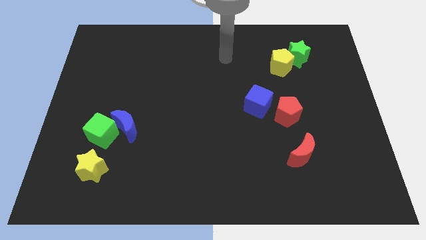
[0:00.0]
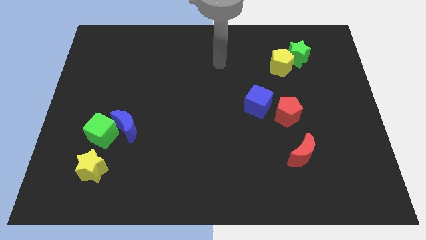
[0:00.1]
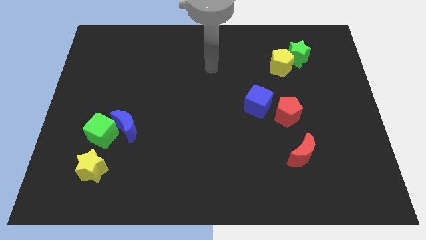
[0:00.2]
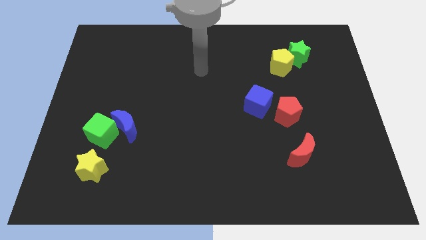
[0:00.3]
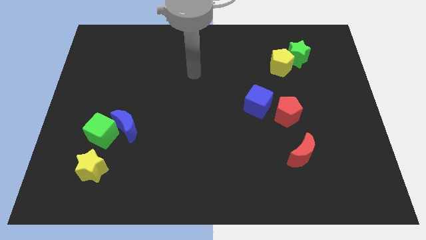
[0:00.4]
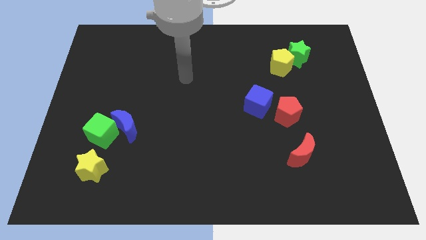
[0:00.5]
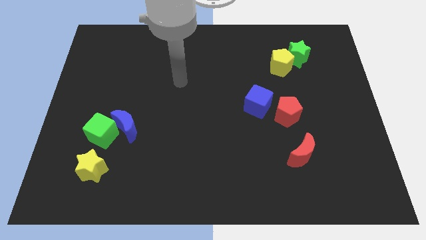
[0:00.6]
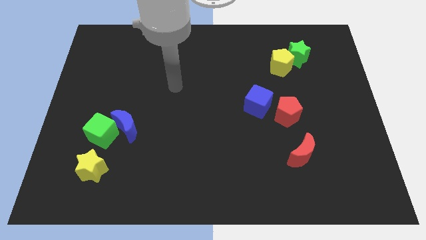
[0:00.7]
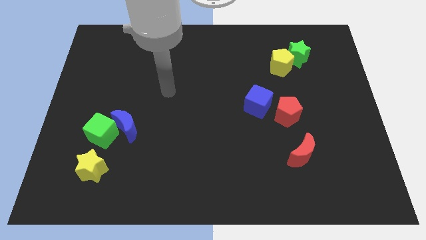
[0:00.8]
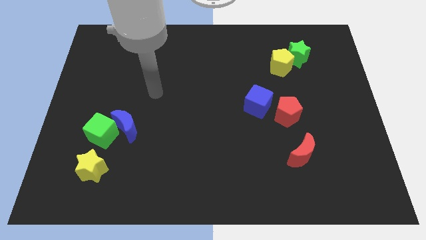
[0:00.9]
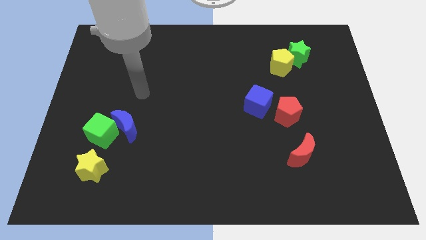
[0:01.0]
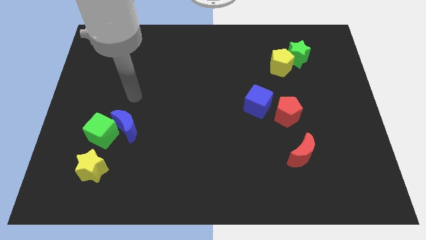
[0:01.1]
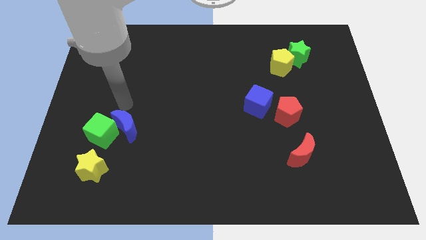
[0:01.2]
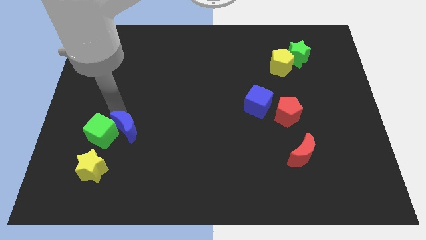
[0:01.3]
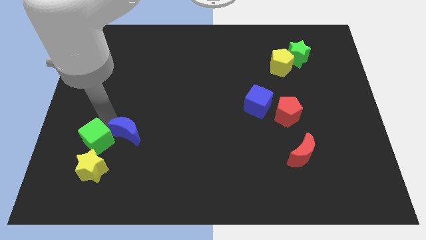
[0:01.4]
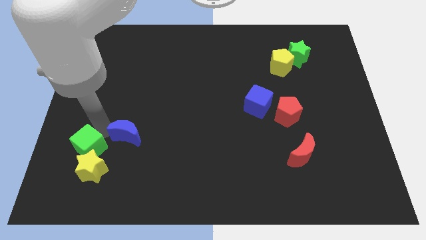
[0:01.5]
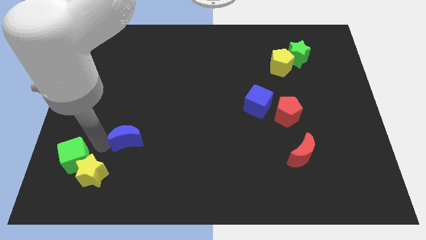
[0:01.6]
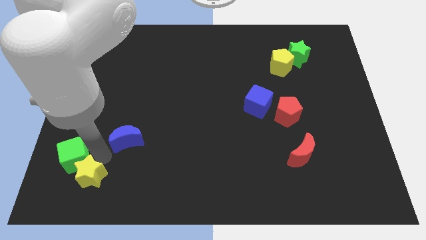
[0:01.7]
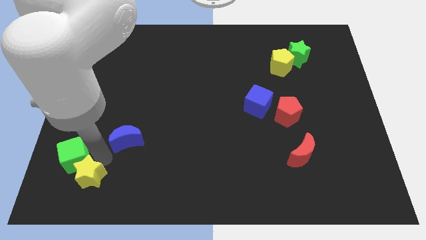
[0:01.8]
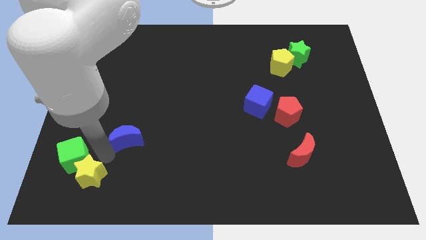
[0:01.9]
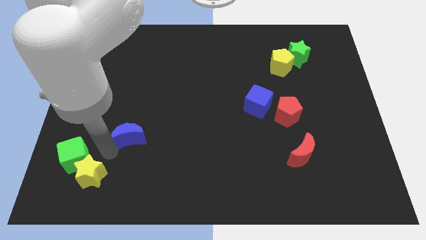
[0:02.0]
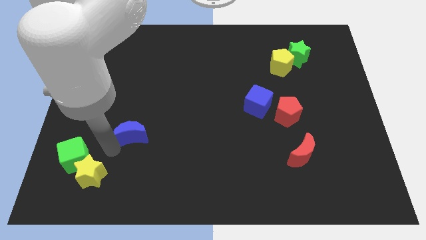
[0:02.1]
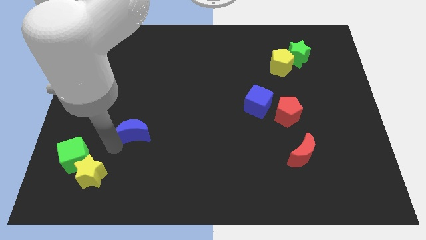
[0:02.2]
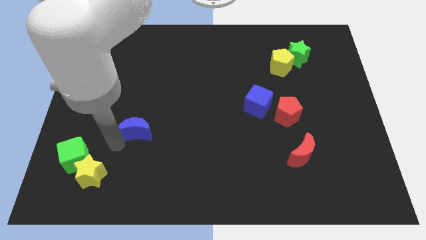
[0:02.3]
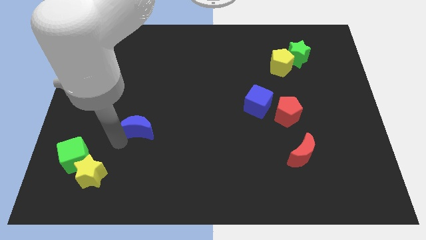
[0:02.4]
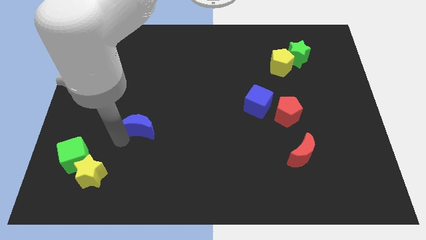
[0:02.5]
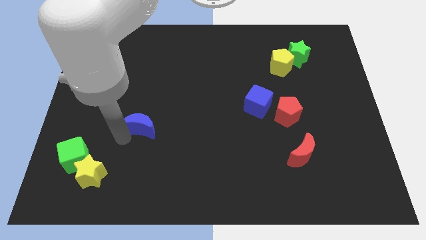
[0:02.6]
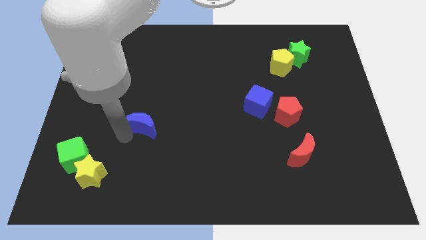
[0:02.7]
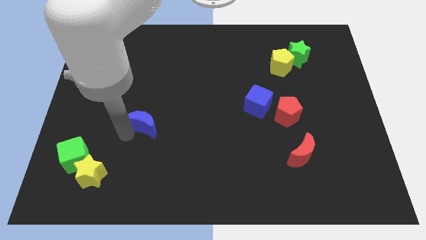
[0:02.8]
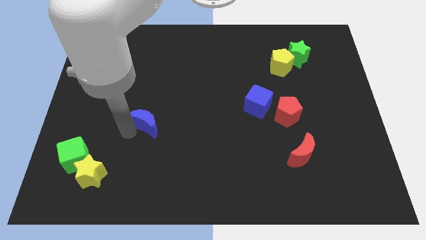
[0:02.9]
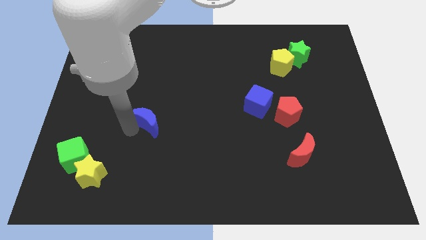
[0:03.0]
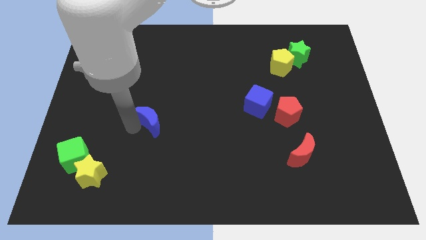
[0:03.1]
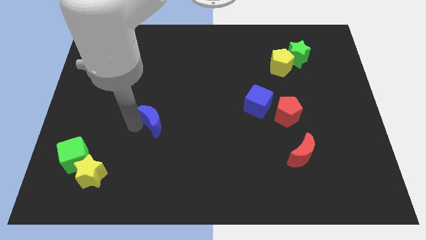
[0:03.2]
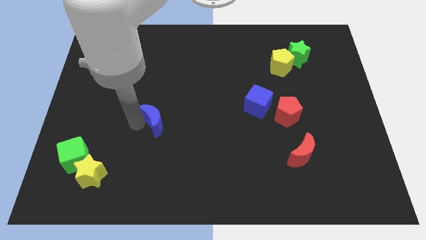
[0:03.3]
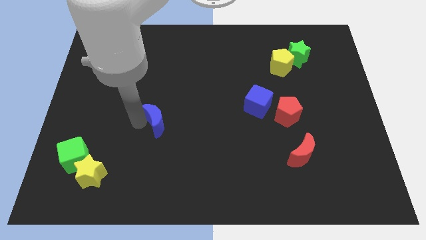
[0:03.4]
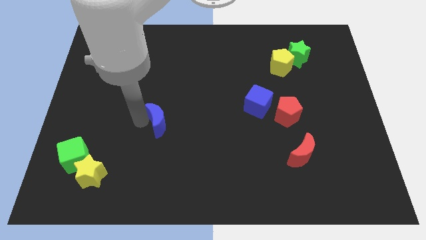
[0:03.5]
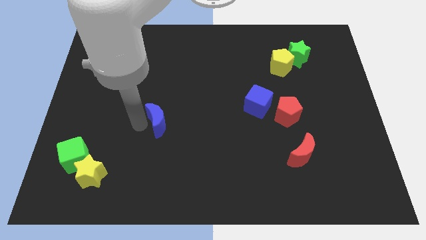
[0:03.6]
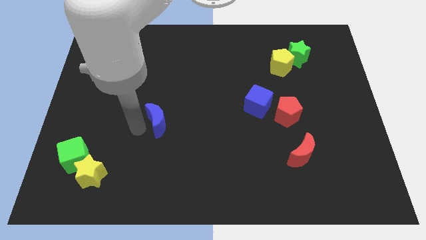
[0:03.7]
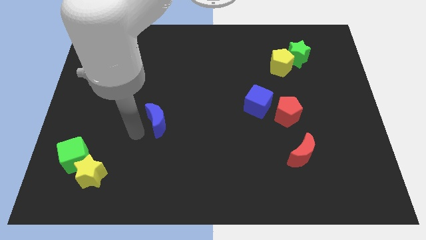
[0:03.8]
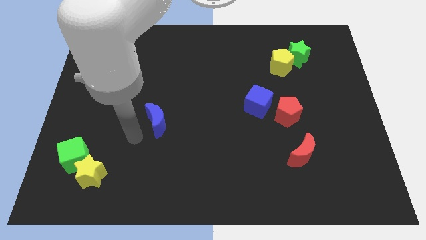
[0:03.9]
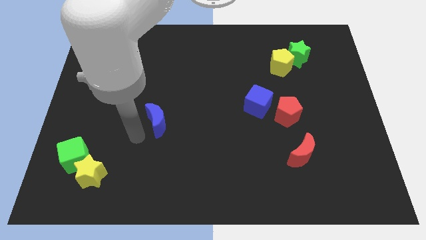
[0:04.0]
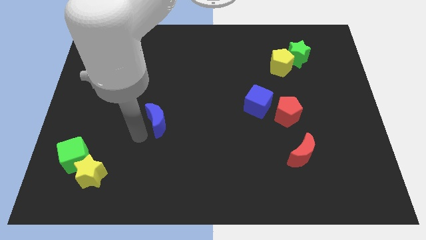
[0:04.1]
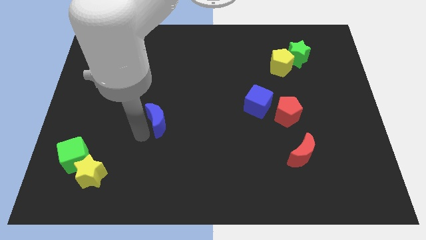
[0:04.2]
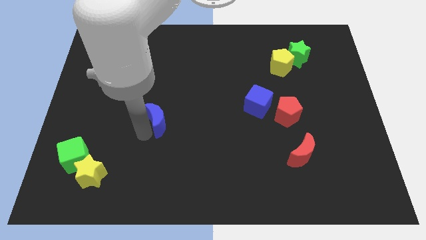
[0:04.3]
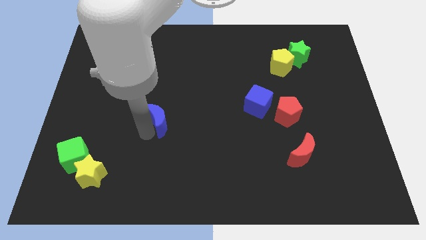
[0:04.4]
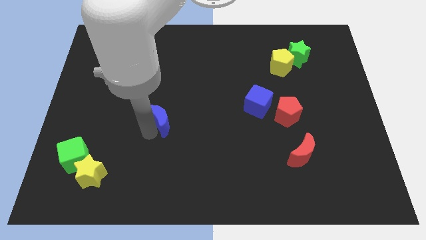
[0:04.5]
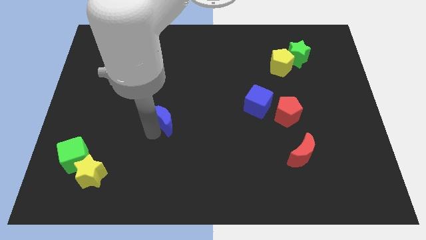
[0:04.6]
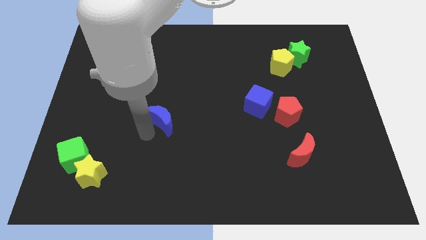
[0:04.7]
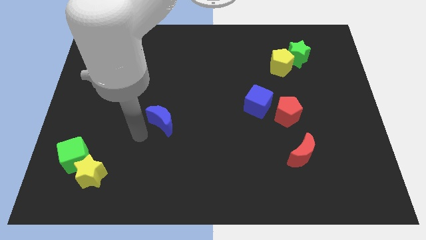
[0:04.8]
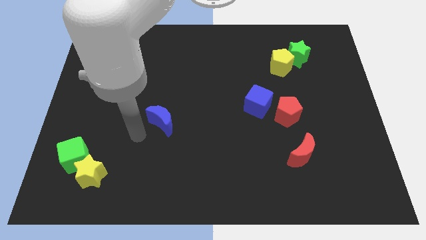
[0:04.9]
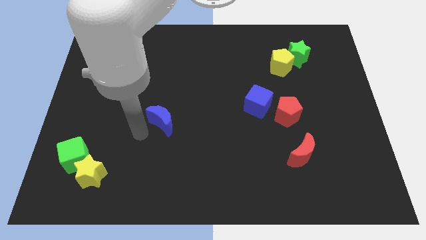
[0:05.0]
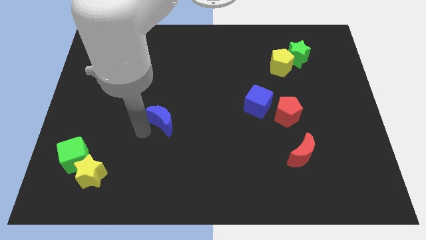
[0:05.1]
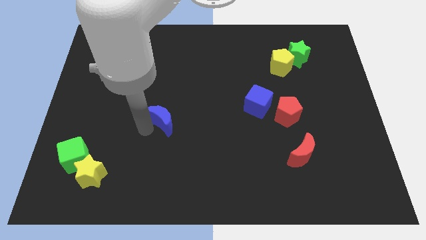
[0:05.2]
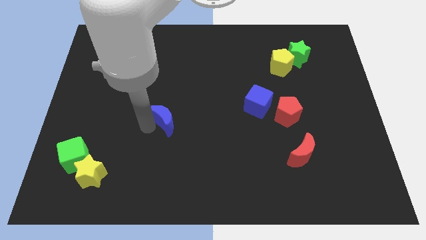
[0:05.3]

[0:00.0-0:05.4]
push the blue moon to the middle

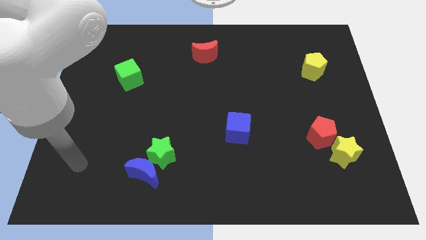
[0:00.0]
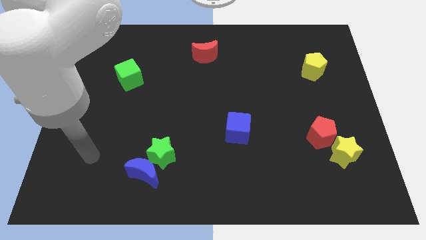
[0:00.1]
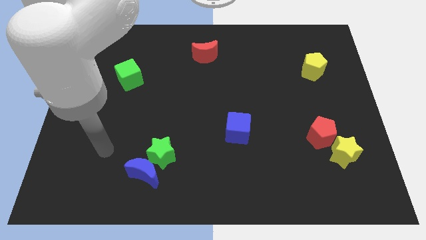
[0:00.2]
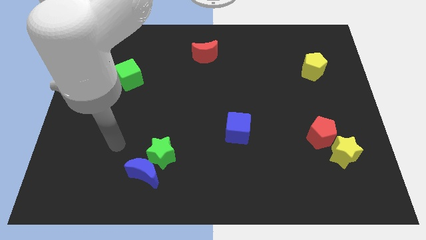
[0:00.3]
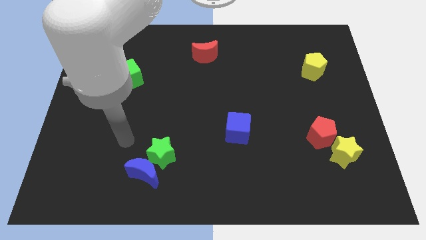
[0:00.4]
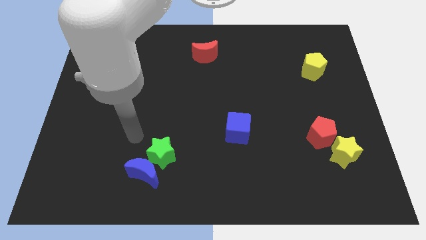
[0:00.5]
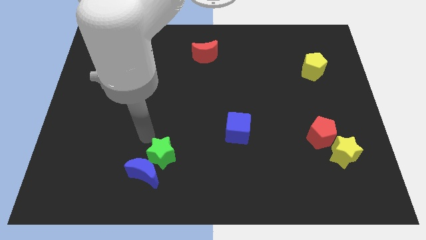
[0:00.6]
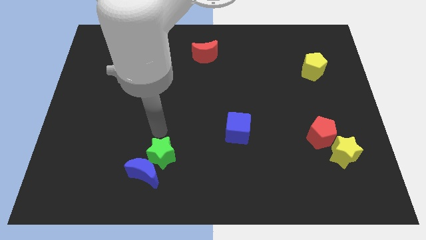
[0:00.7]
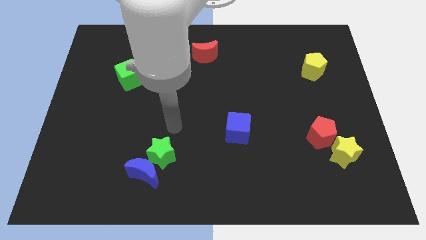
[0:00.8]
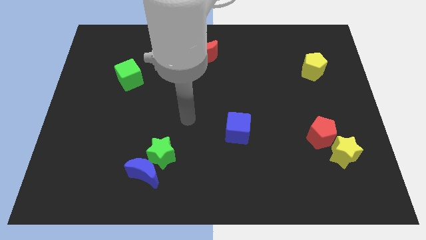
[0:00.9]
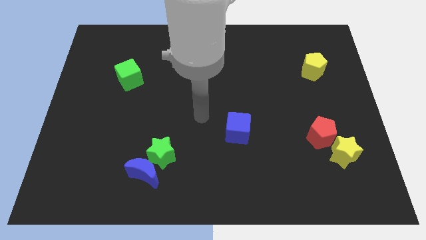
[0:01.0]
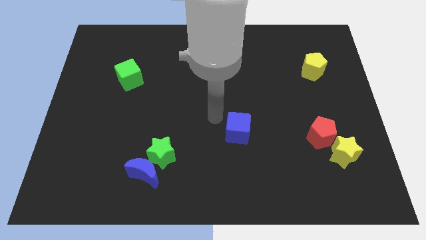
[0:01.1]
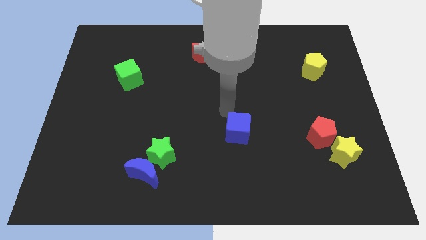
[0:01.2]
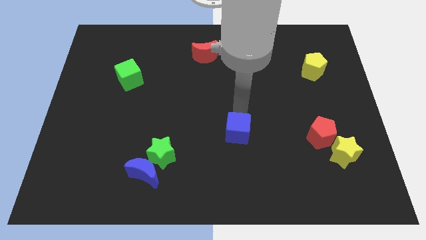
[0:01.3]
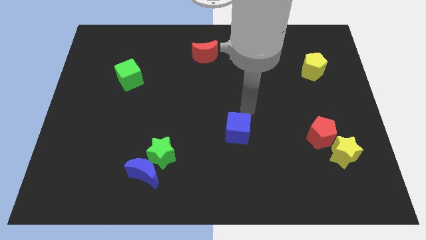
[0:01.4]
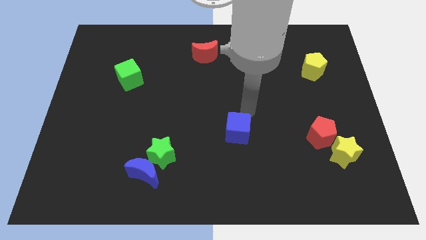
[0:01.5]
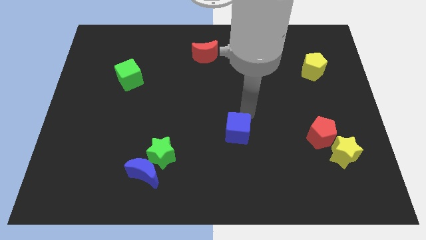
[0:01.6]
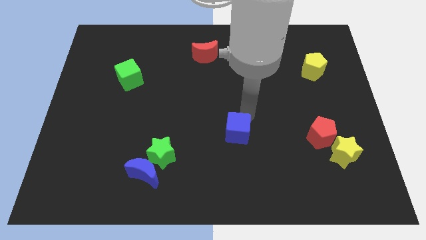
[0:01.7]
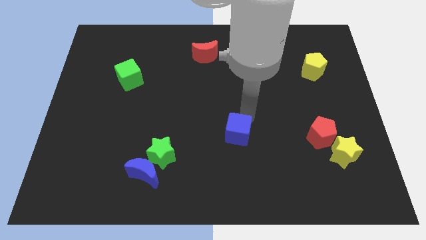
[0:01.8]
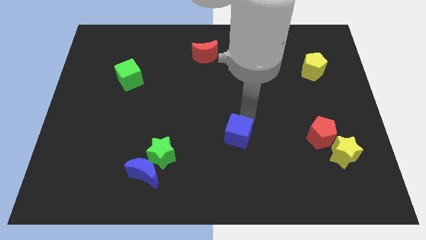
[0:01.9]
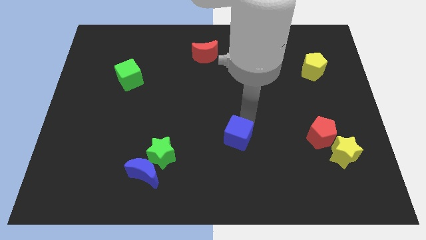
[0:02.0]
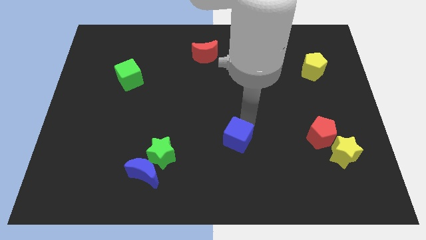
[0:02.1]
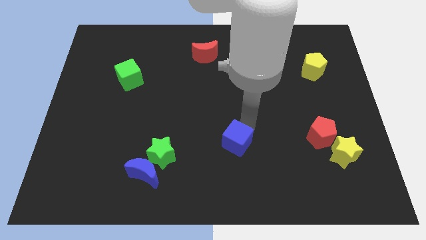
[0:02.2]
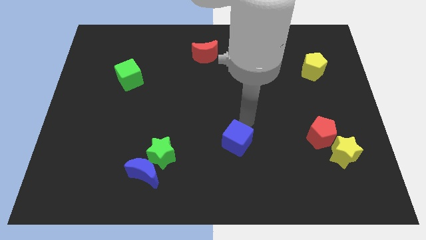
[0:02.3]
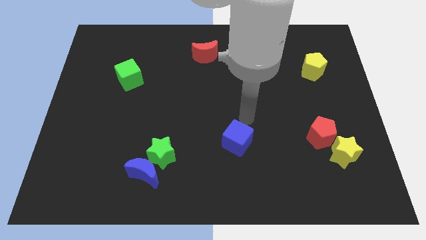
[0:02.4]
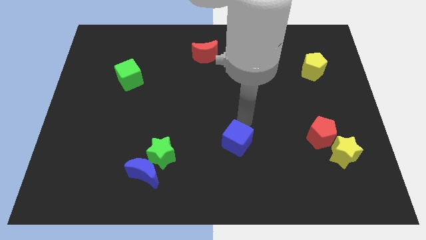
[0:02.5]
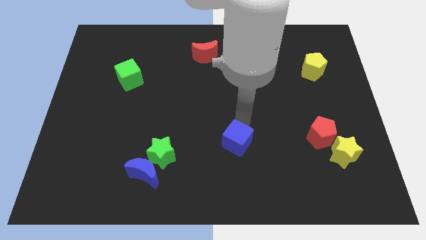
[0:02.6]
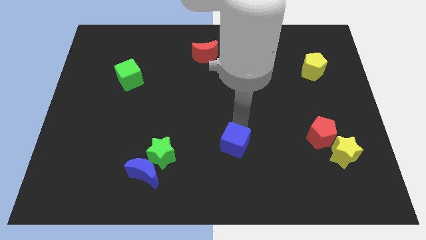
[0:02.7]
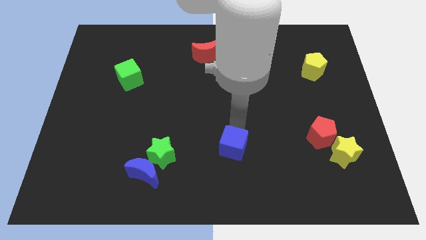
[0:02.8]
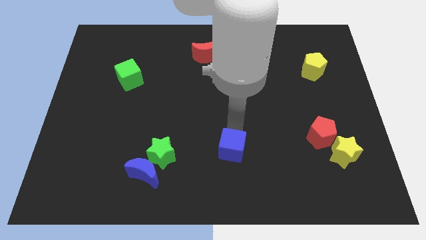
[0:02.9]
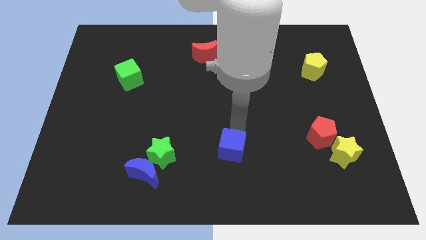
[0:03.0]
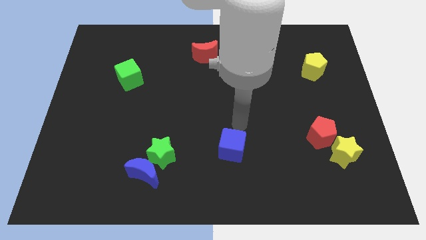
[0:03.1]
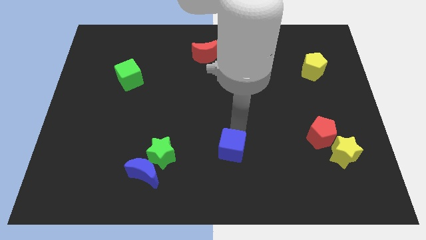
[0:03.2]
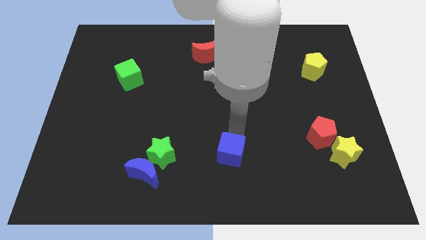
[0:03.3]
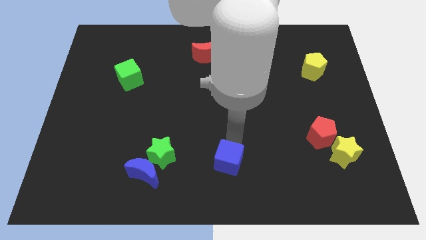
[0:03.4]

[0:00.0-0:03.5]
slide the blue cube to the bottom side
